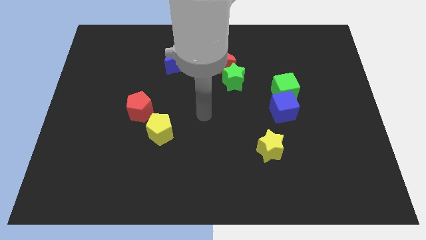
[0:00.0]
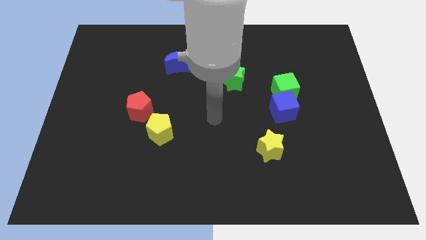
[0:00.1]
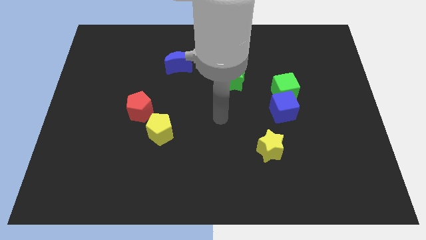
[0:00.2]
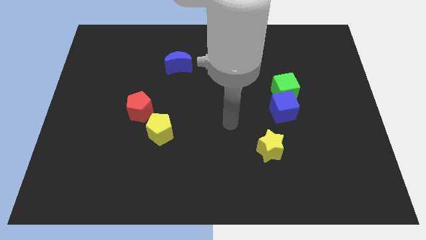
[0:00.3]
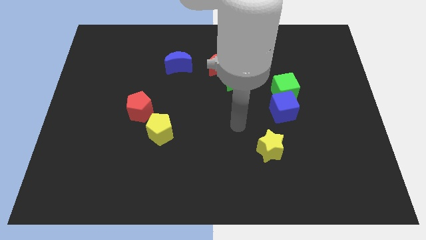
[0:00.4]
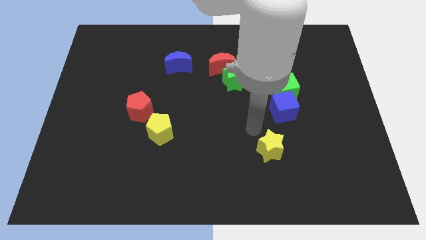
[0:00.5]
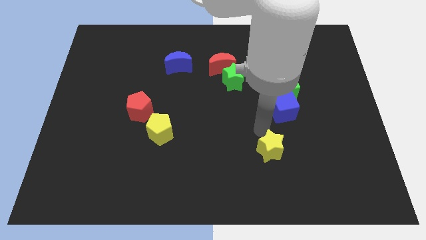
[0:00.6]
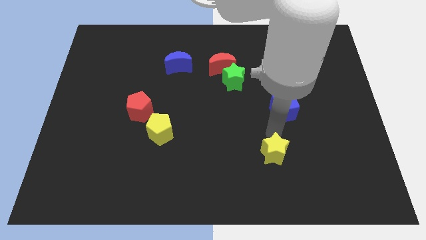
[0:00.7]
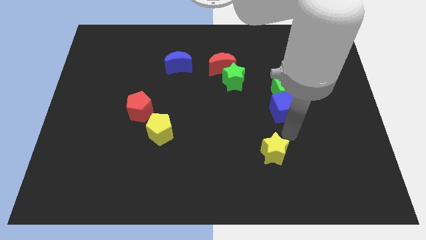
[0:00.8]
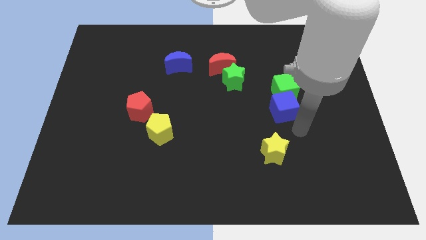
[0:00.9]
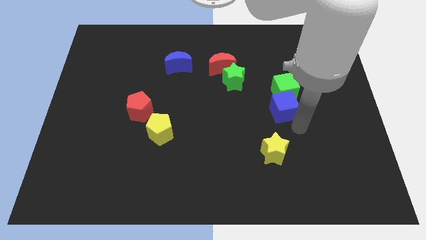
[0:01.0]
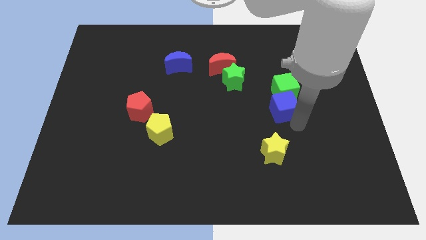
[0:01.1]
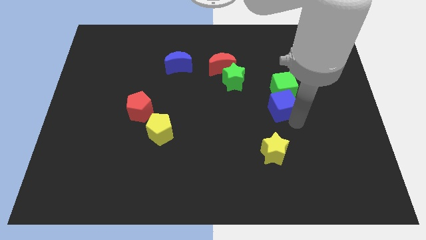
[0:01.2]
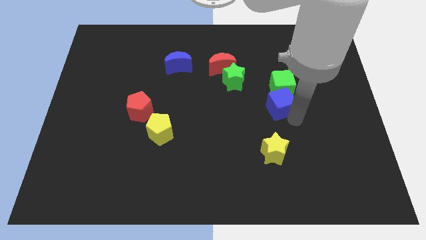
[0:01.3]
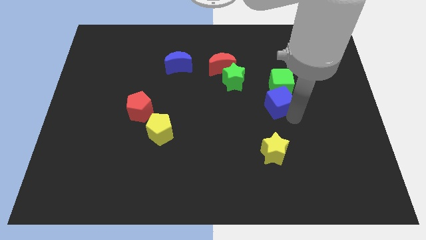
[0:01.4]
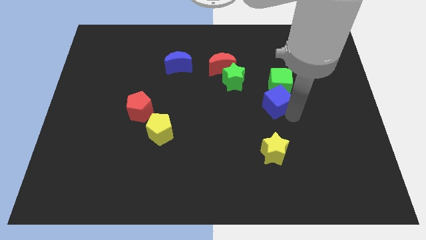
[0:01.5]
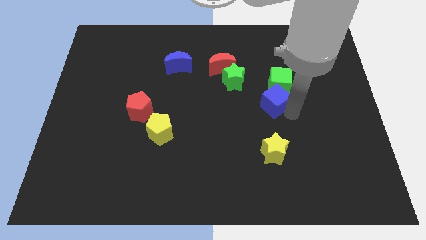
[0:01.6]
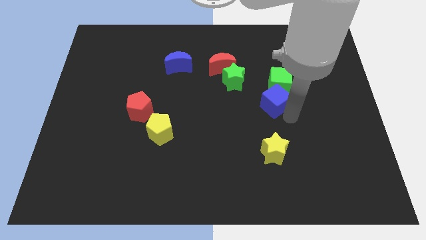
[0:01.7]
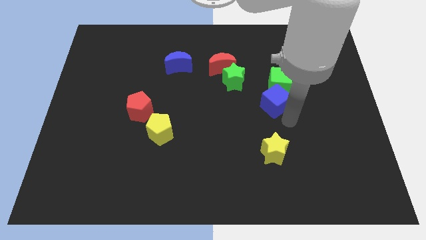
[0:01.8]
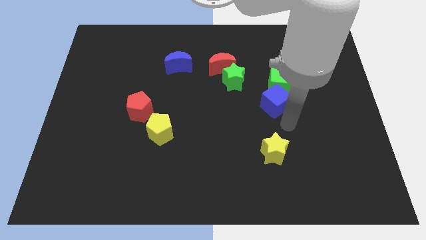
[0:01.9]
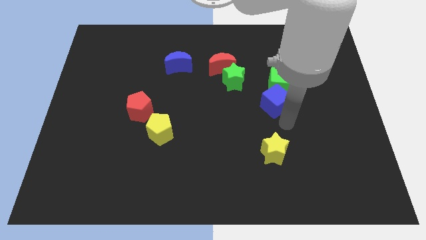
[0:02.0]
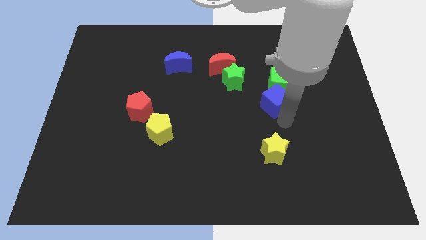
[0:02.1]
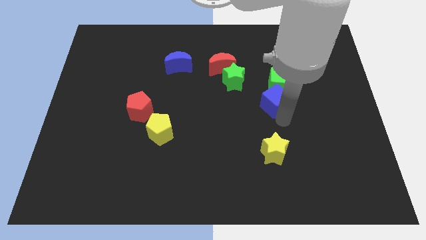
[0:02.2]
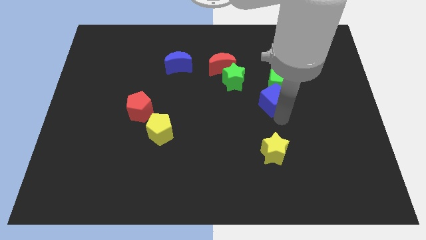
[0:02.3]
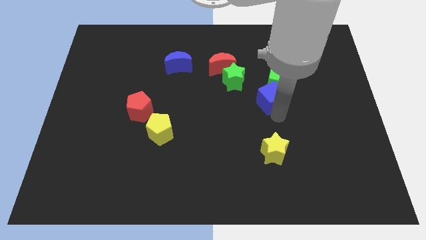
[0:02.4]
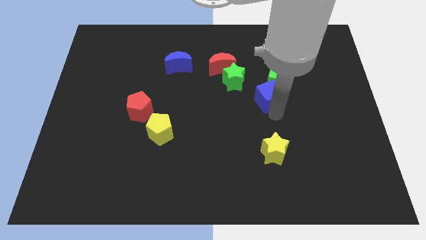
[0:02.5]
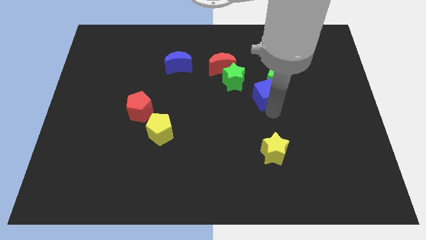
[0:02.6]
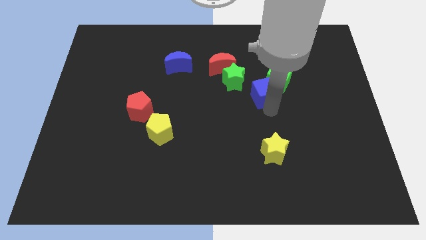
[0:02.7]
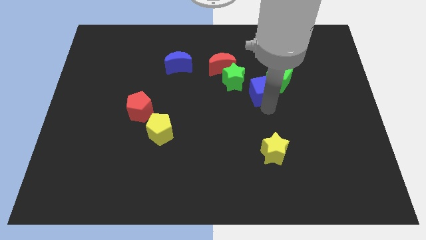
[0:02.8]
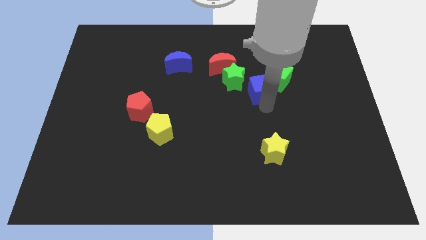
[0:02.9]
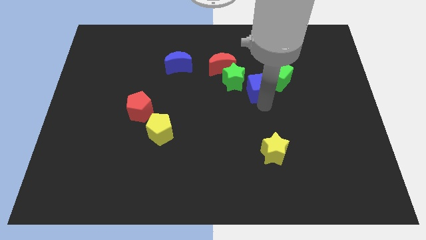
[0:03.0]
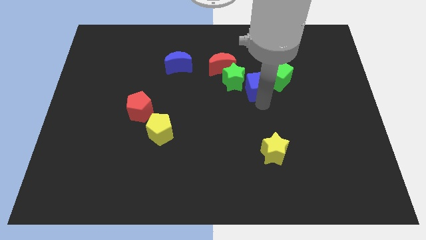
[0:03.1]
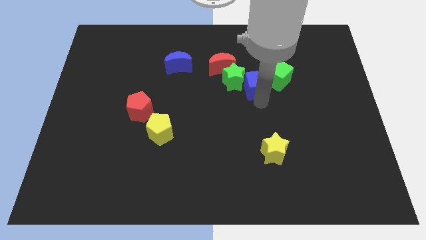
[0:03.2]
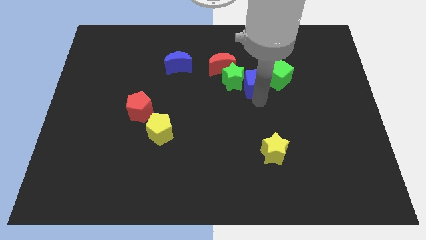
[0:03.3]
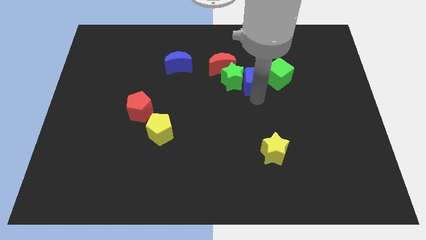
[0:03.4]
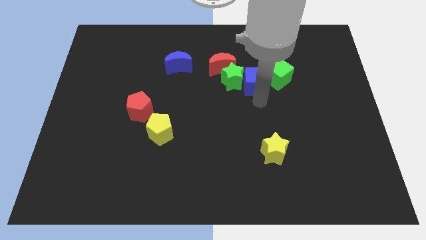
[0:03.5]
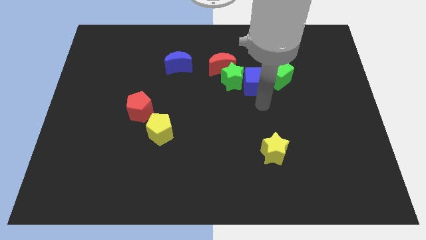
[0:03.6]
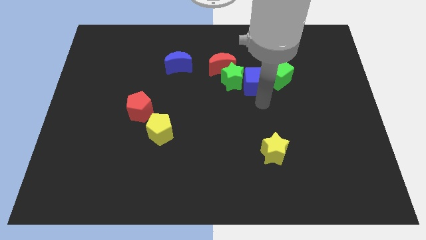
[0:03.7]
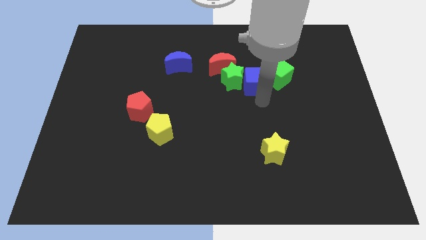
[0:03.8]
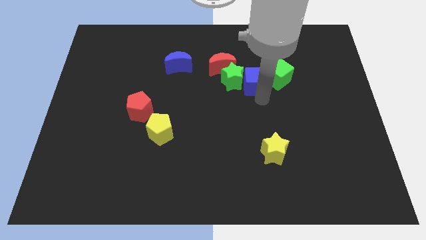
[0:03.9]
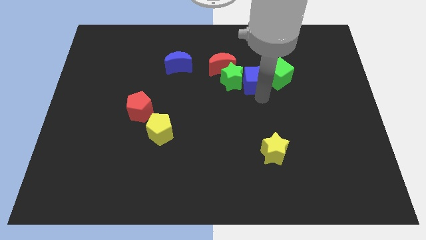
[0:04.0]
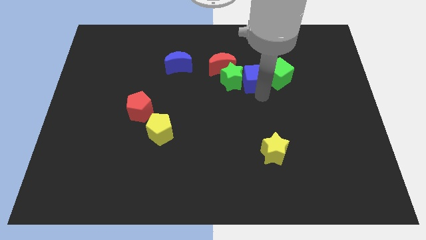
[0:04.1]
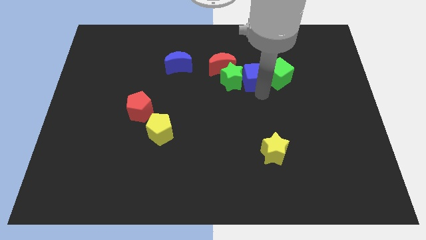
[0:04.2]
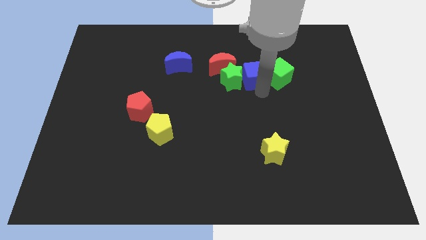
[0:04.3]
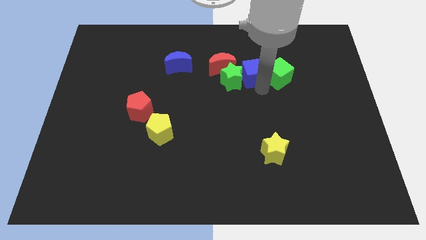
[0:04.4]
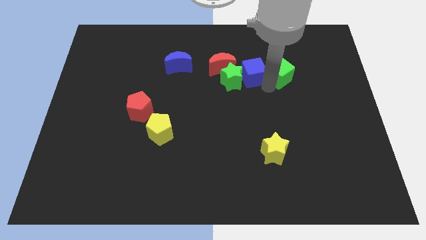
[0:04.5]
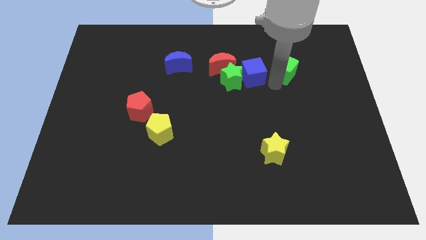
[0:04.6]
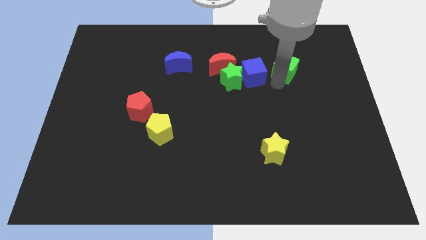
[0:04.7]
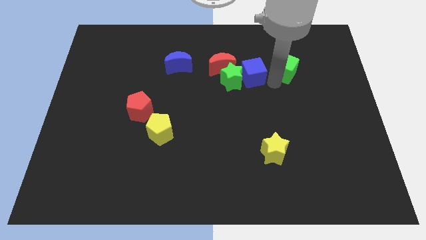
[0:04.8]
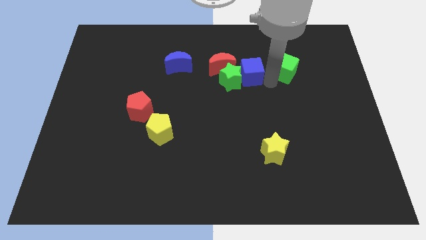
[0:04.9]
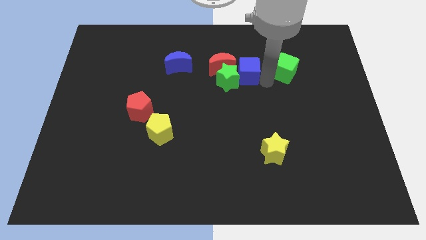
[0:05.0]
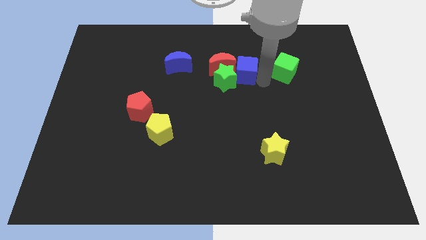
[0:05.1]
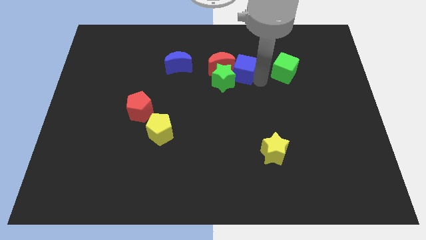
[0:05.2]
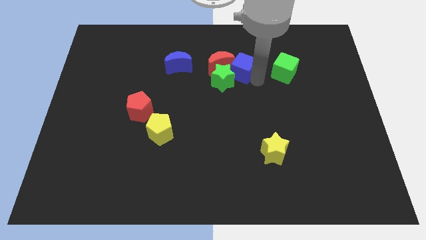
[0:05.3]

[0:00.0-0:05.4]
put the blue cube next to the red moon

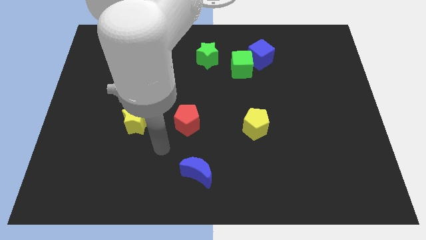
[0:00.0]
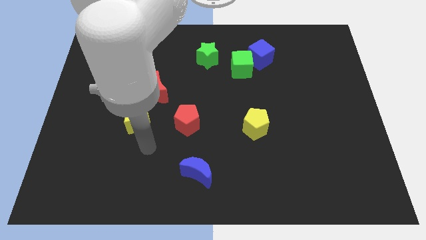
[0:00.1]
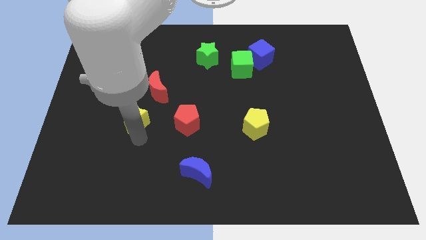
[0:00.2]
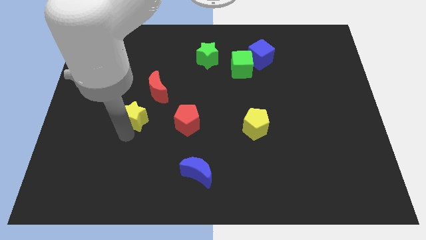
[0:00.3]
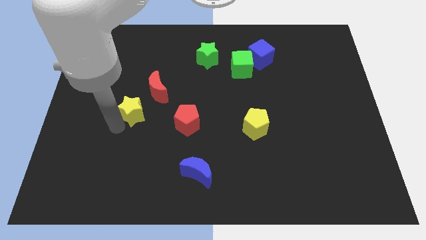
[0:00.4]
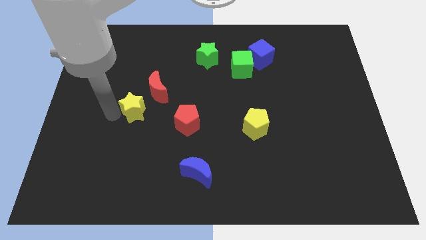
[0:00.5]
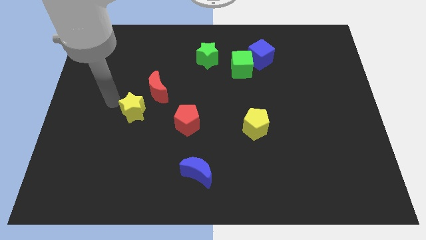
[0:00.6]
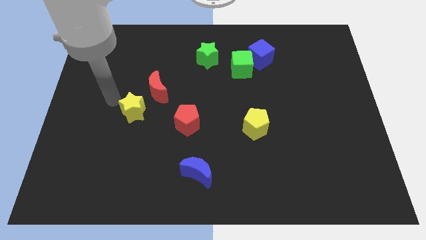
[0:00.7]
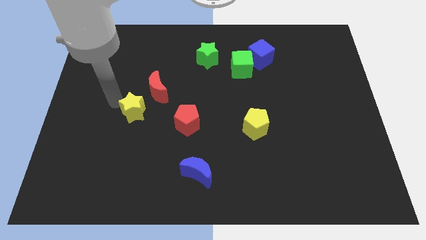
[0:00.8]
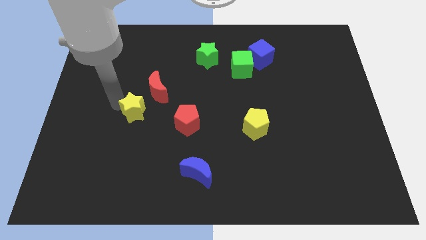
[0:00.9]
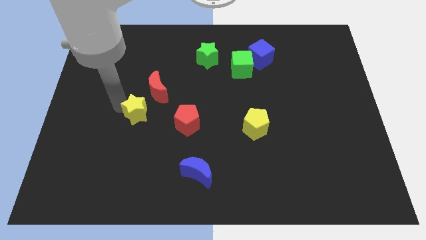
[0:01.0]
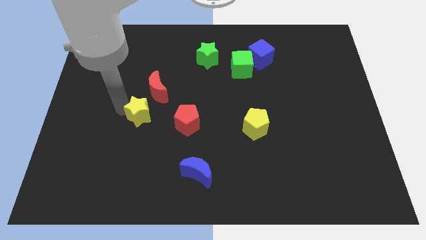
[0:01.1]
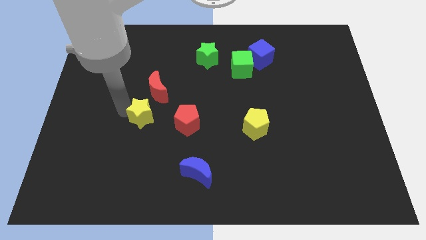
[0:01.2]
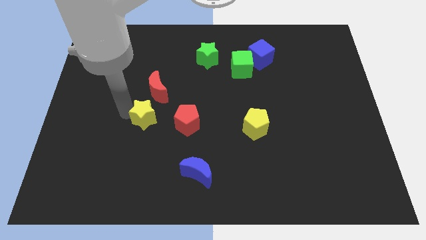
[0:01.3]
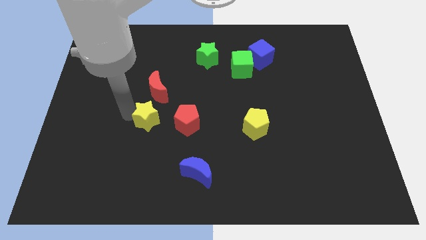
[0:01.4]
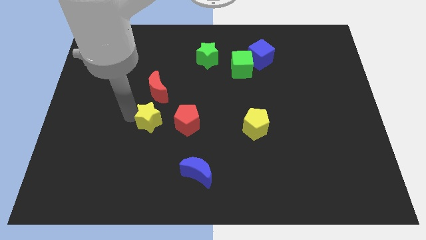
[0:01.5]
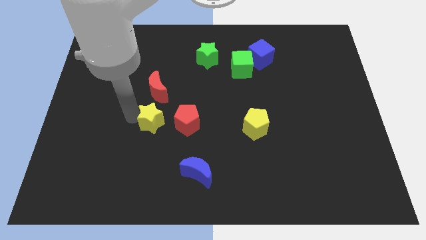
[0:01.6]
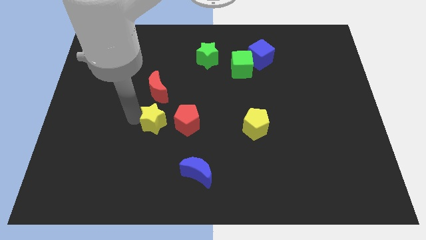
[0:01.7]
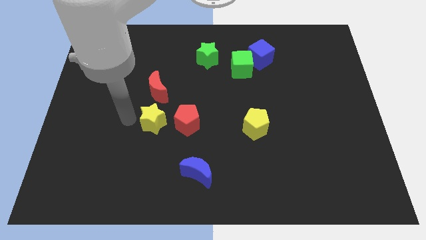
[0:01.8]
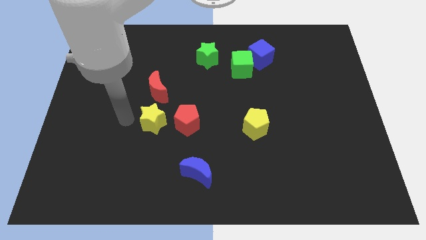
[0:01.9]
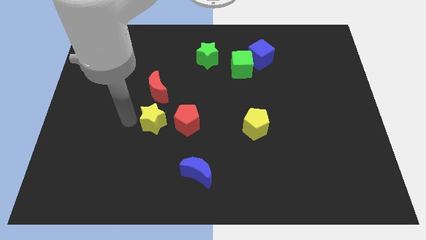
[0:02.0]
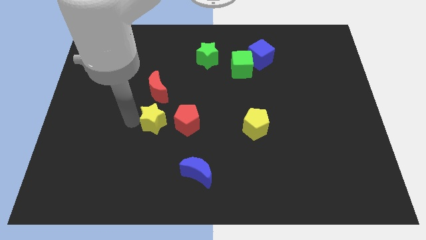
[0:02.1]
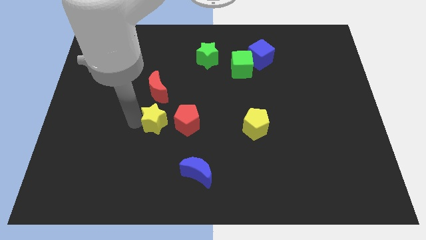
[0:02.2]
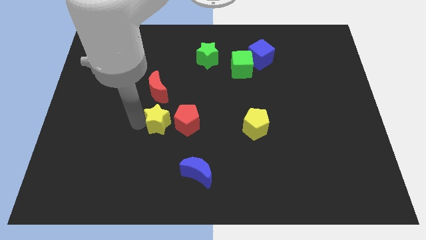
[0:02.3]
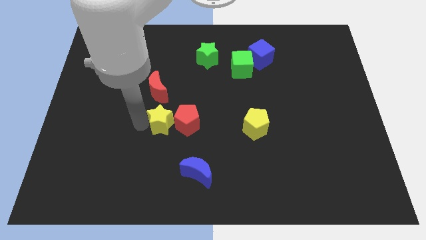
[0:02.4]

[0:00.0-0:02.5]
push the yellow star to the red pentagon
